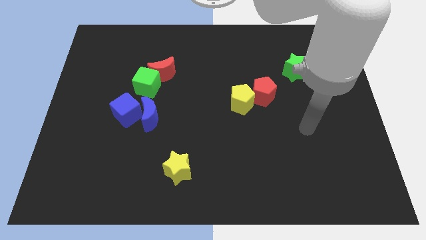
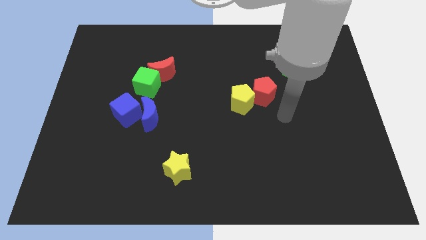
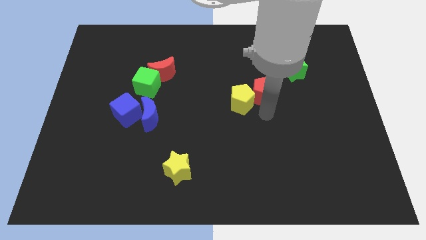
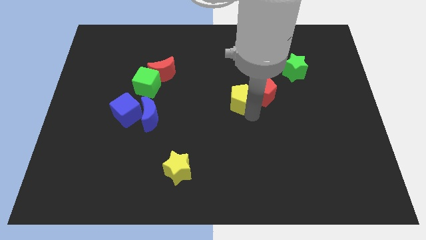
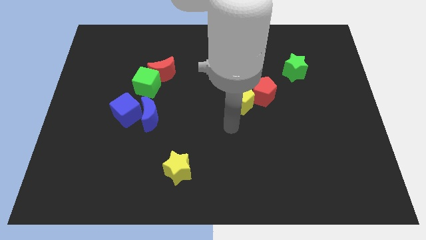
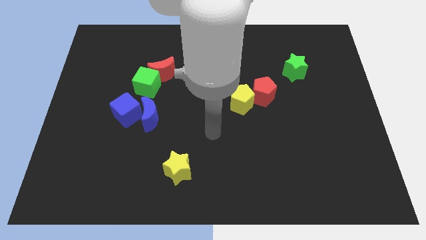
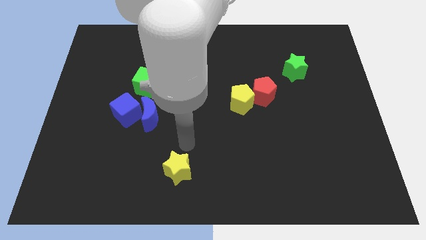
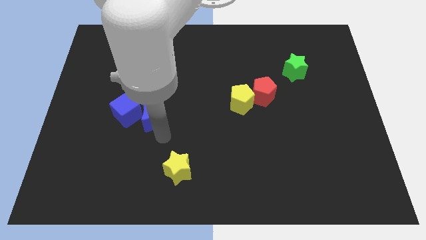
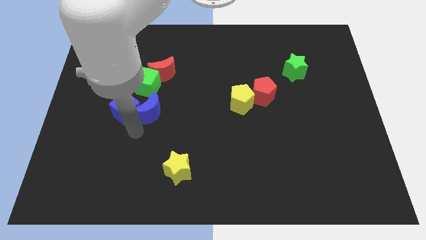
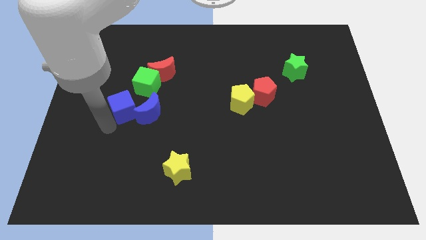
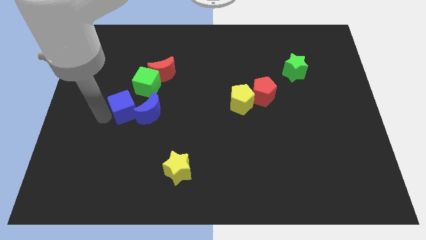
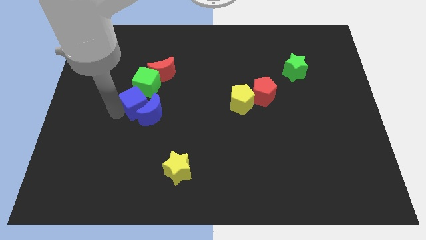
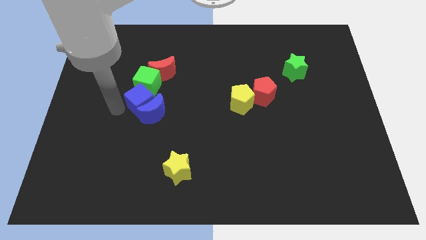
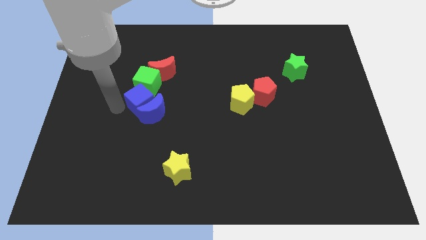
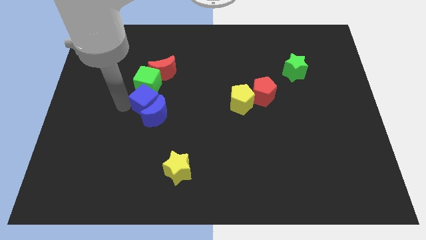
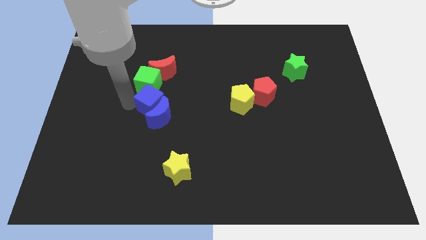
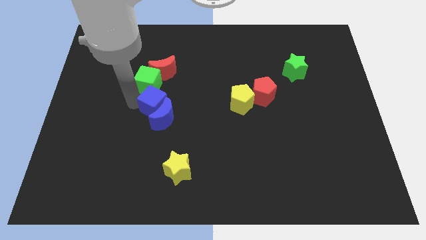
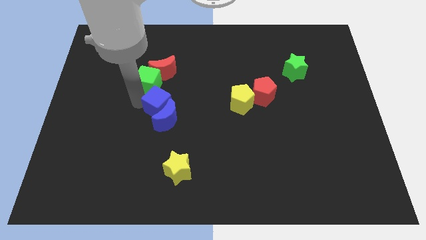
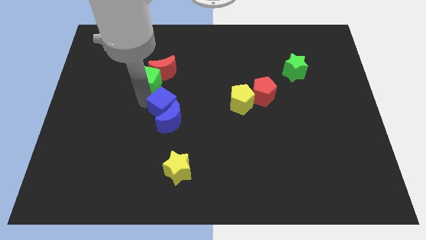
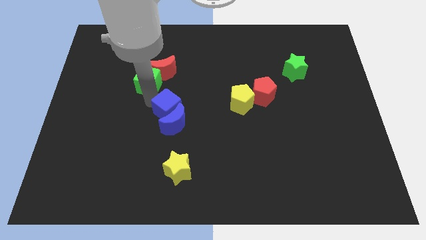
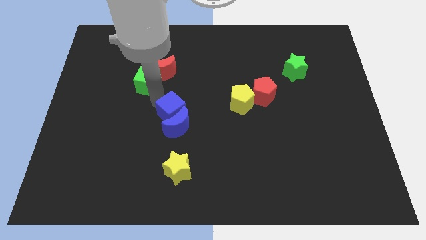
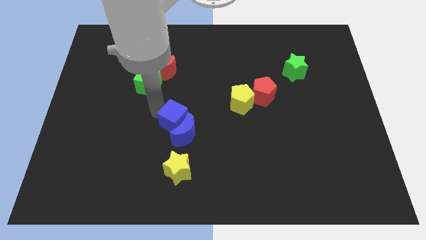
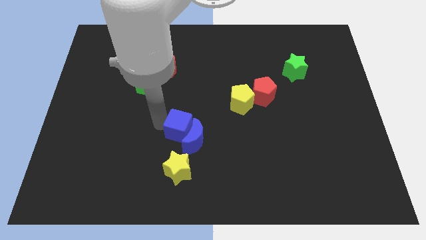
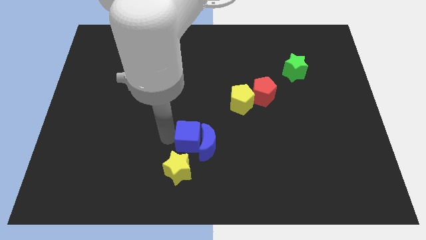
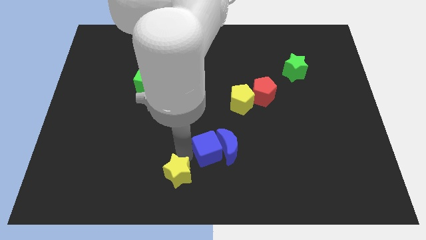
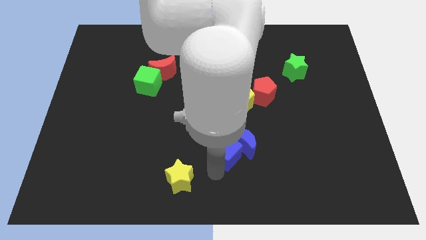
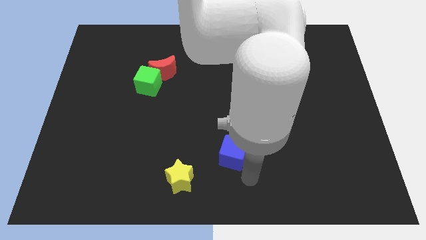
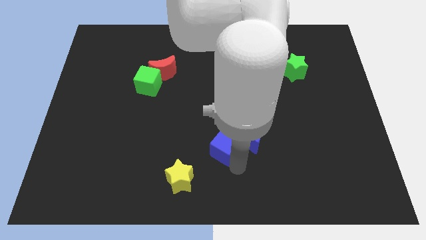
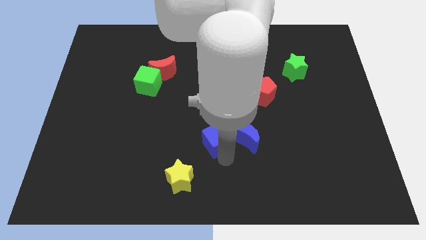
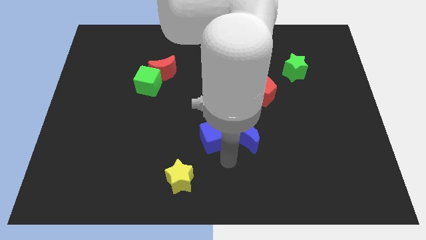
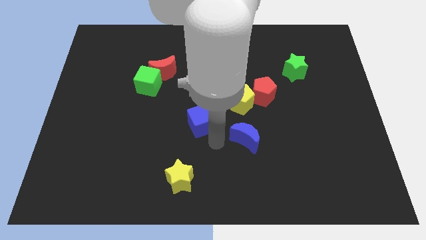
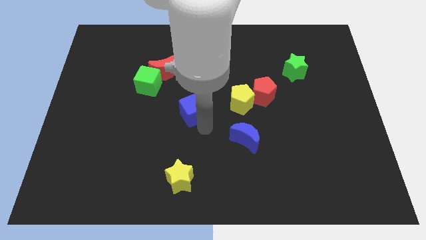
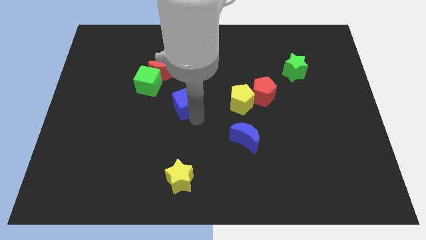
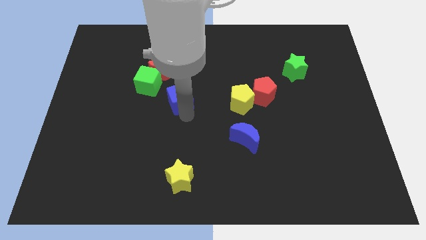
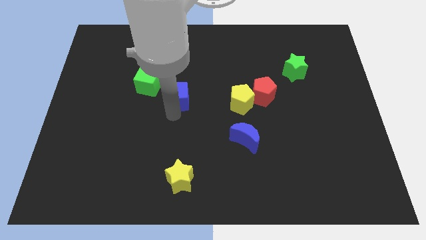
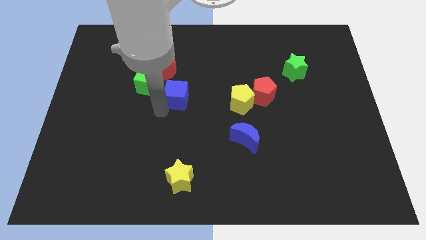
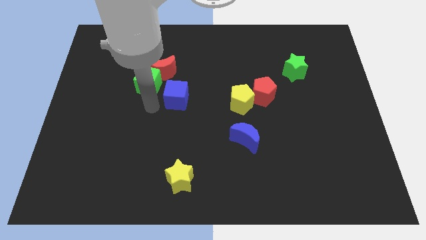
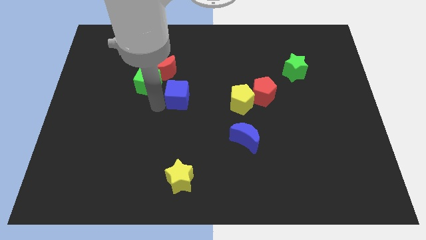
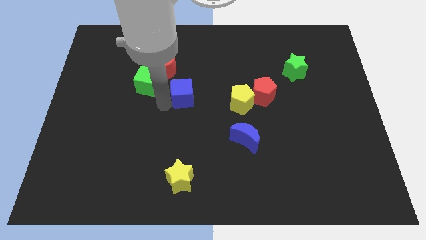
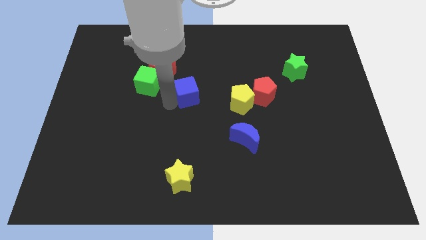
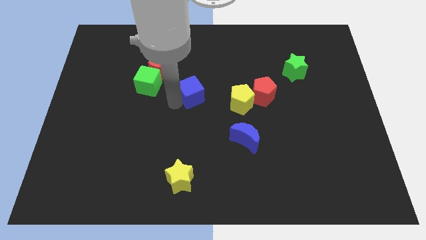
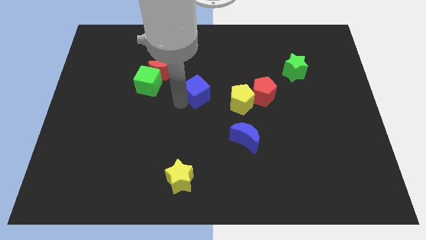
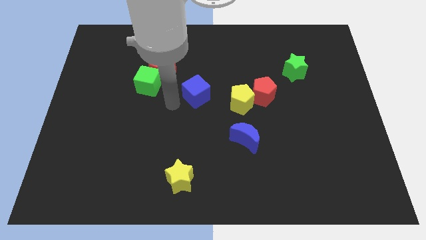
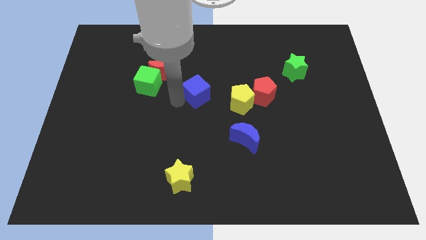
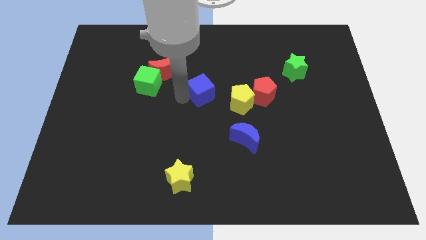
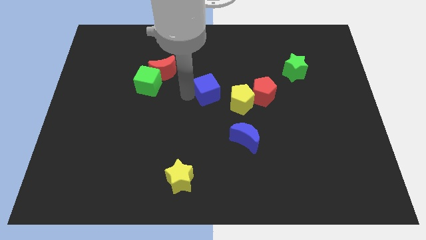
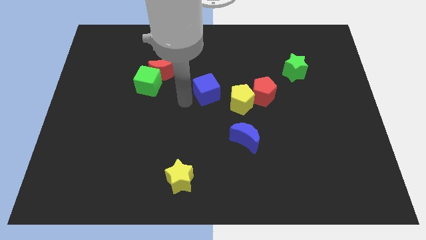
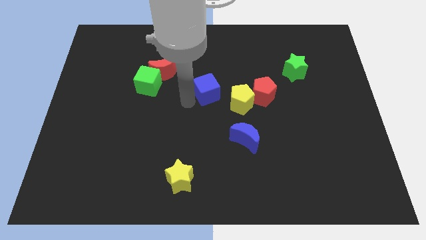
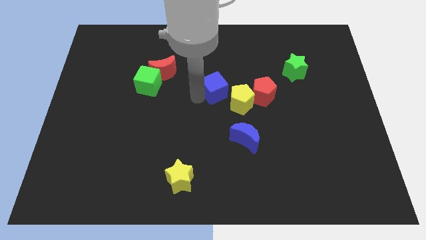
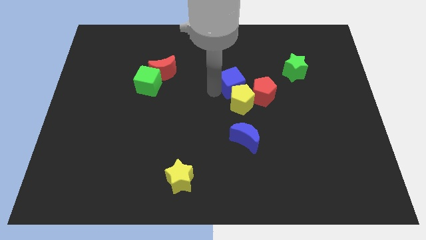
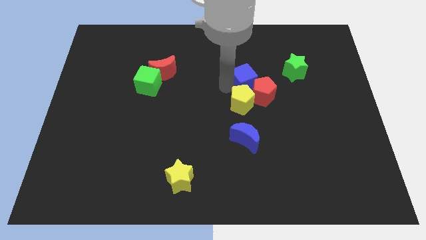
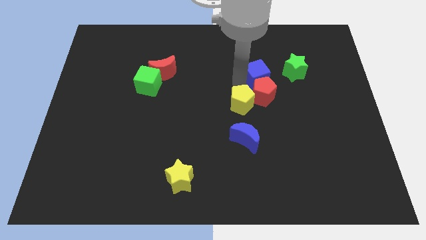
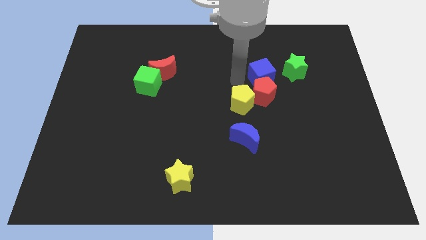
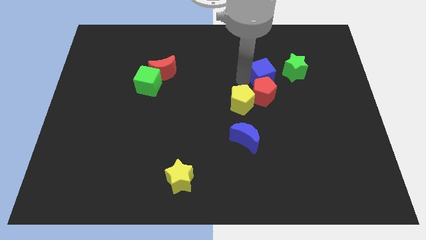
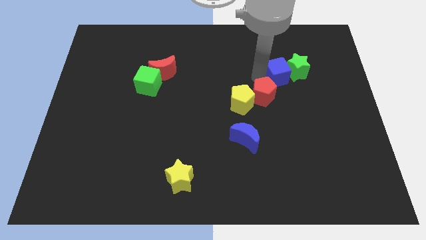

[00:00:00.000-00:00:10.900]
push the blue cube close to the green star

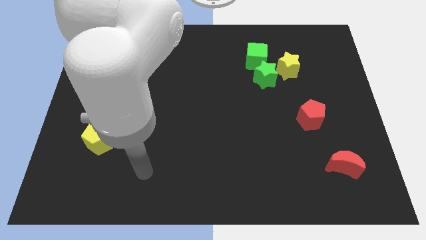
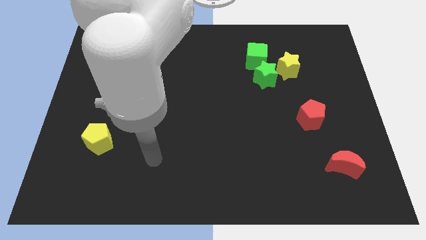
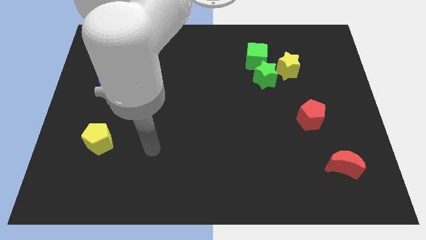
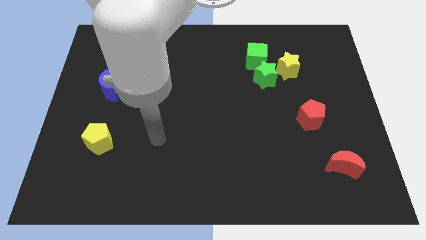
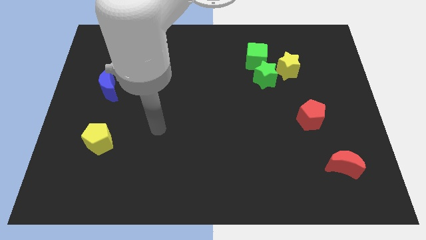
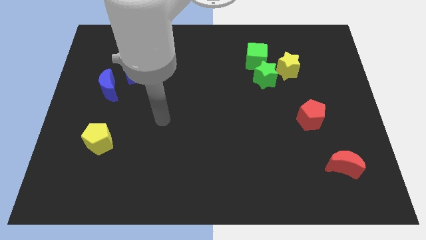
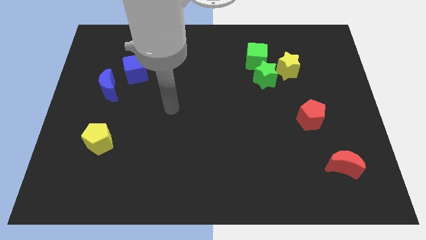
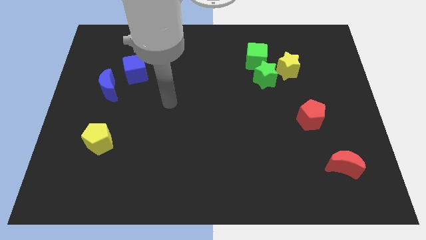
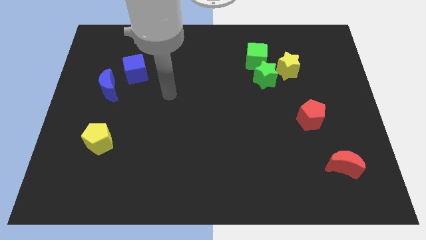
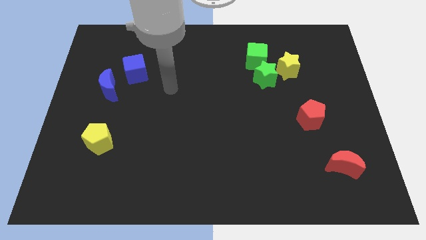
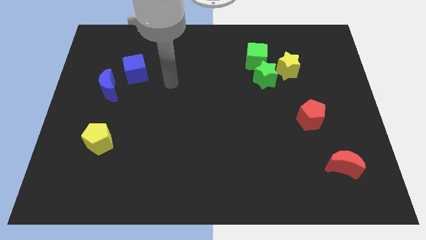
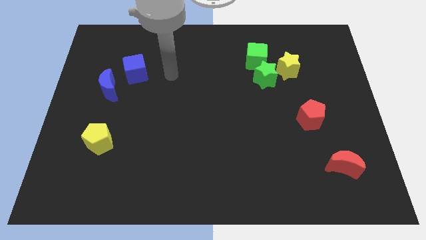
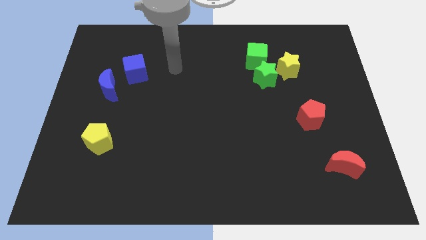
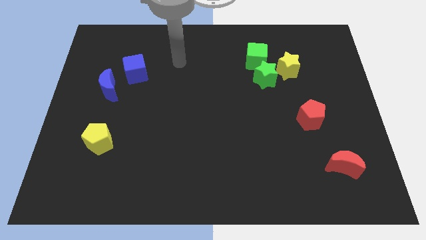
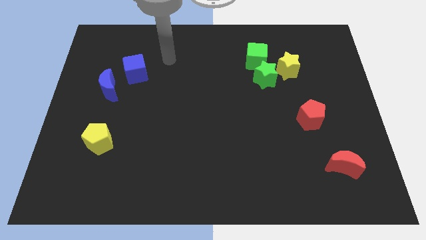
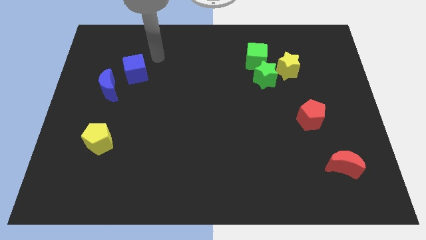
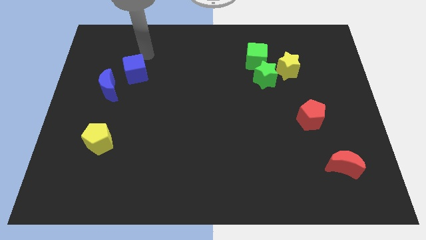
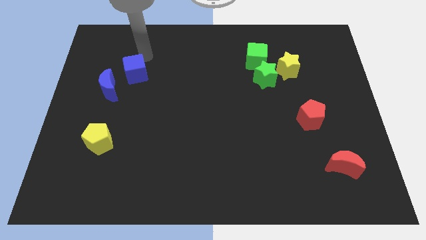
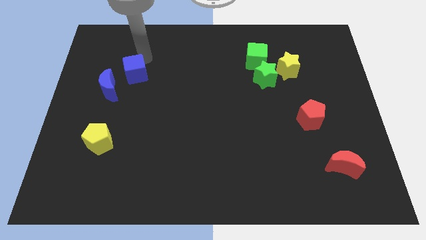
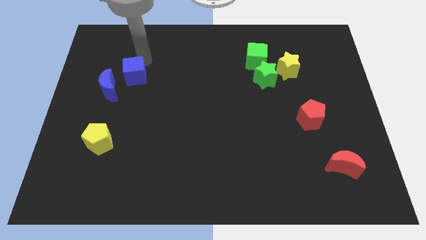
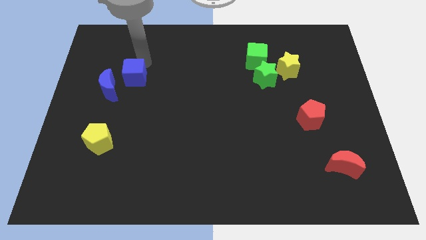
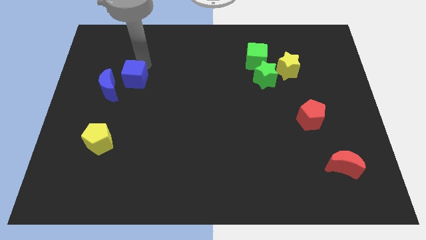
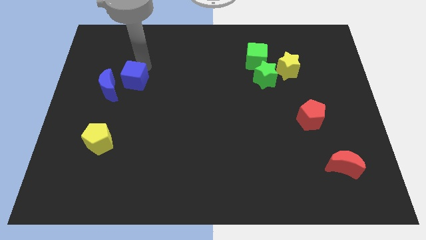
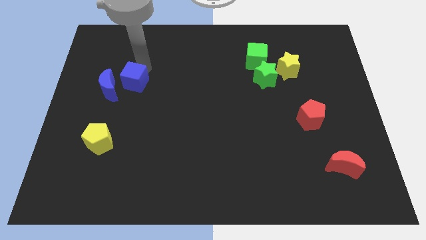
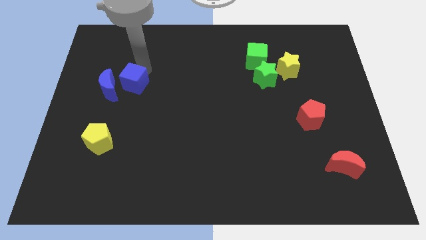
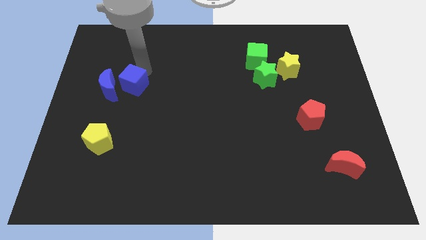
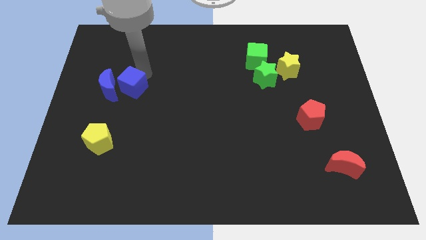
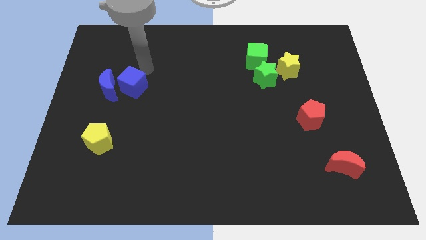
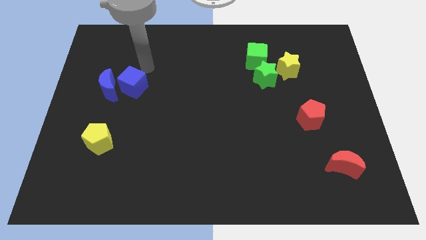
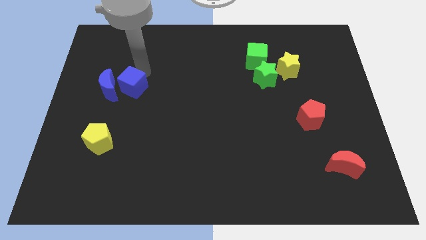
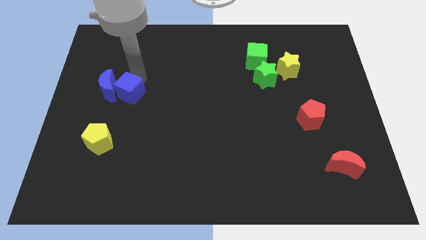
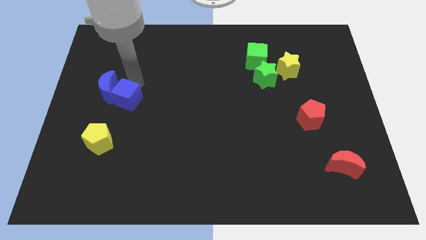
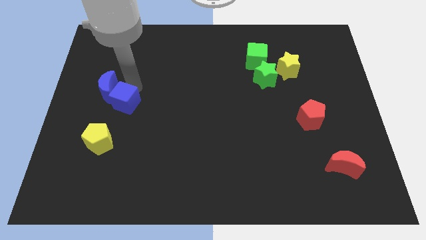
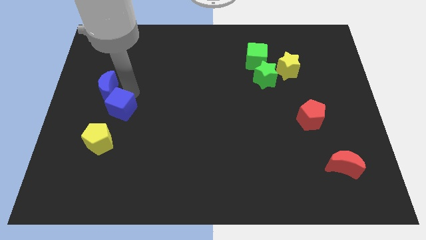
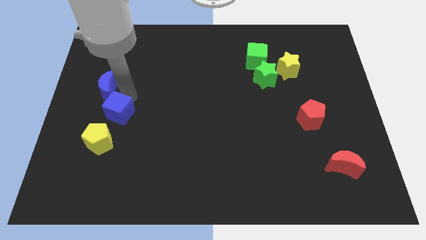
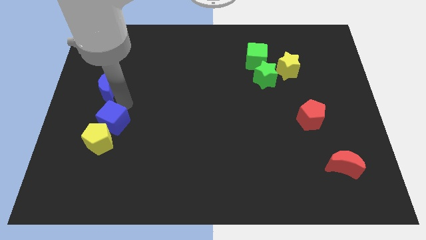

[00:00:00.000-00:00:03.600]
move the blue cube to the yellow pentagon
